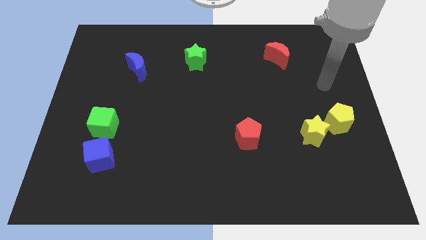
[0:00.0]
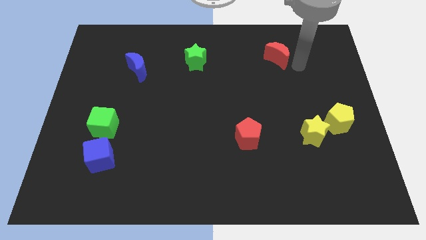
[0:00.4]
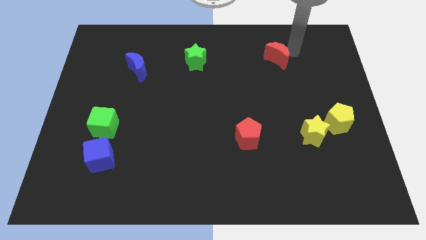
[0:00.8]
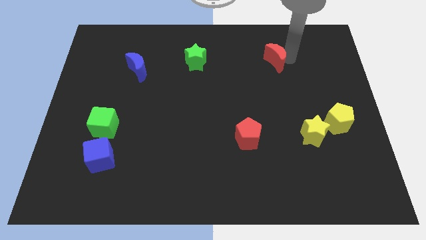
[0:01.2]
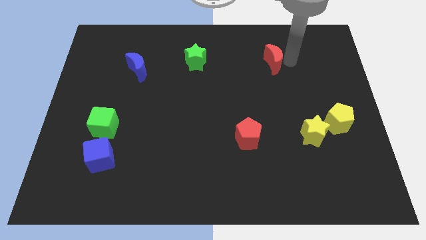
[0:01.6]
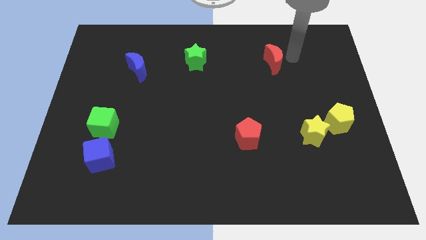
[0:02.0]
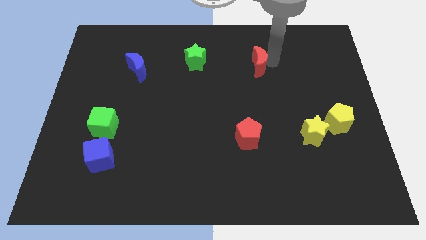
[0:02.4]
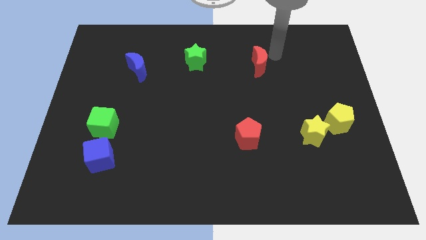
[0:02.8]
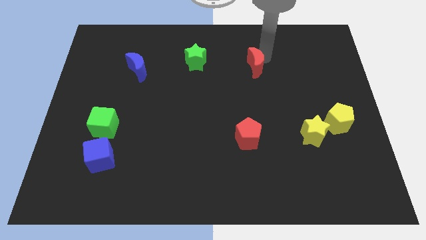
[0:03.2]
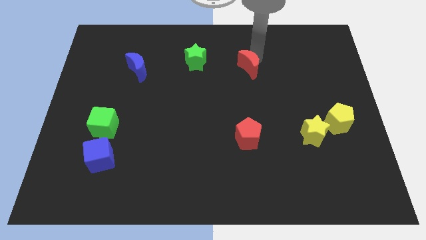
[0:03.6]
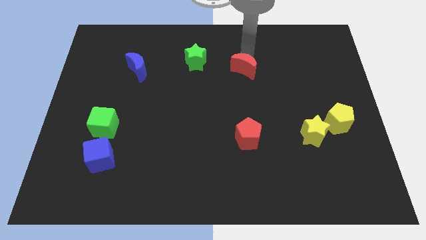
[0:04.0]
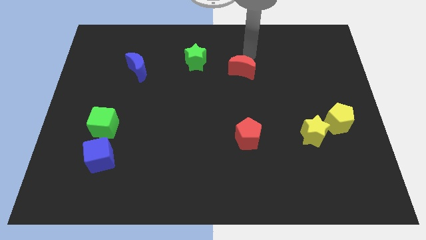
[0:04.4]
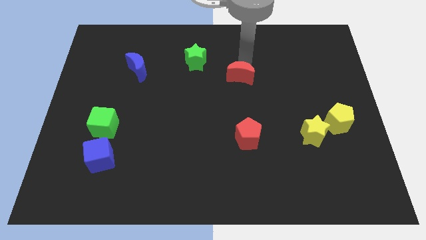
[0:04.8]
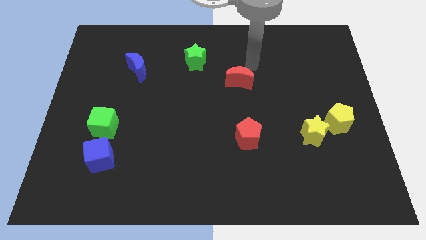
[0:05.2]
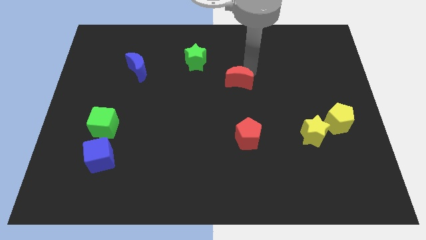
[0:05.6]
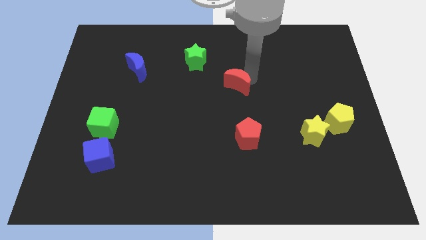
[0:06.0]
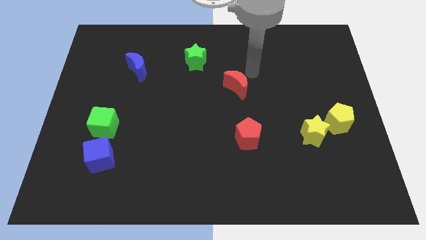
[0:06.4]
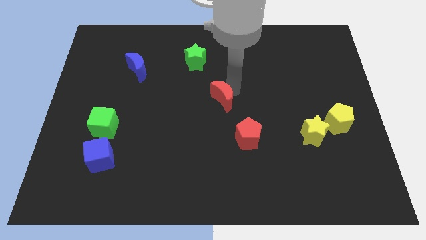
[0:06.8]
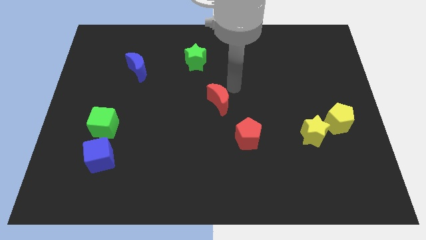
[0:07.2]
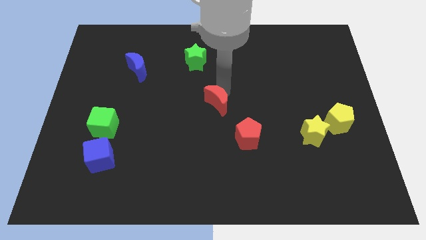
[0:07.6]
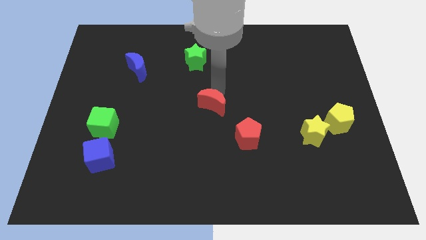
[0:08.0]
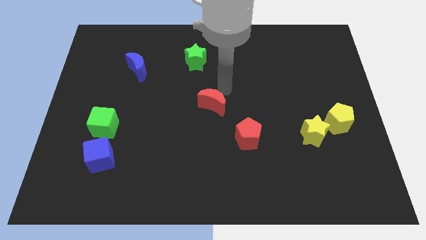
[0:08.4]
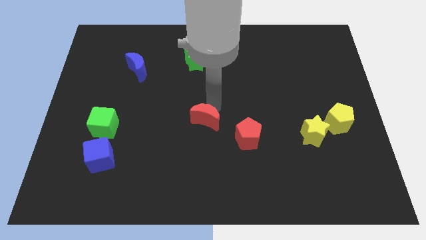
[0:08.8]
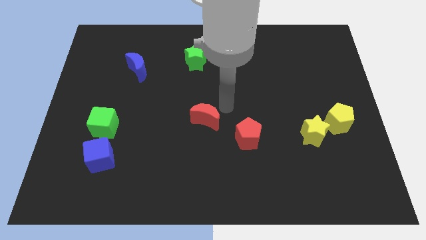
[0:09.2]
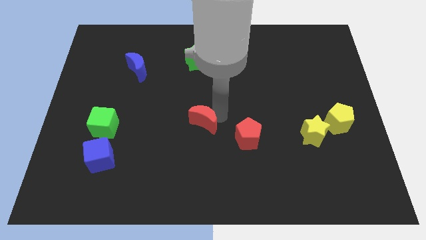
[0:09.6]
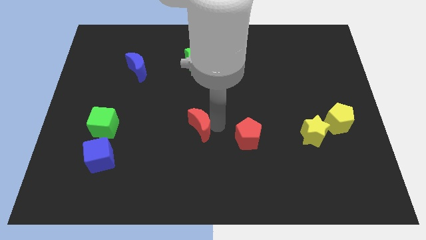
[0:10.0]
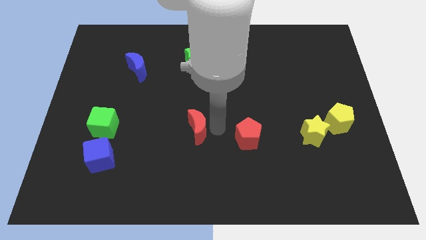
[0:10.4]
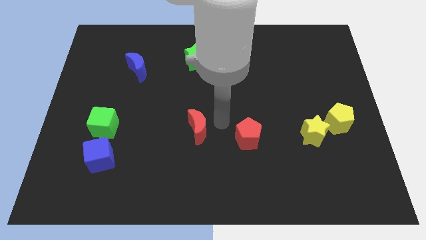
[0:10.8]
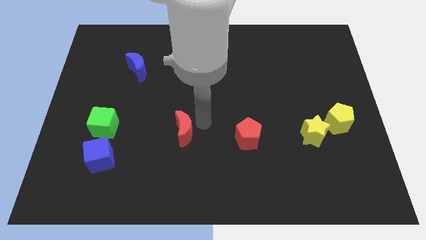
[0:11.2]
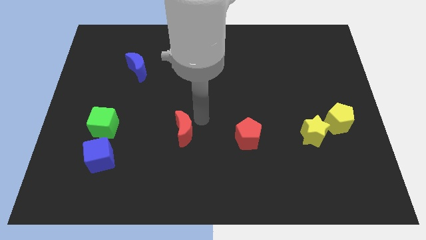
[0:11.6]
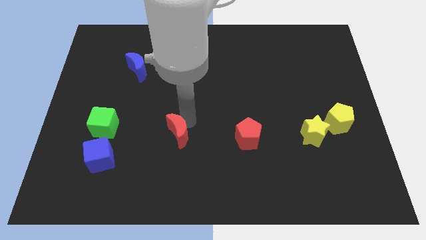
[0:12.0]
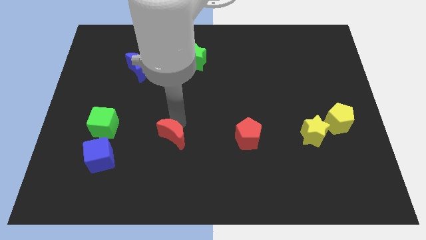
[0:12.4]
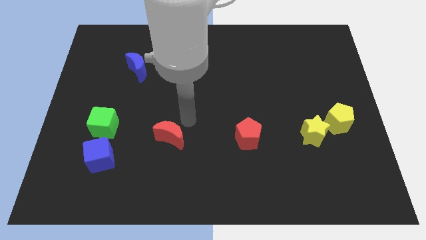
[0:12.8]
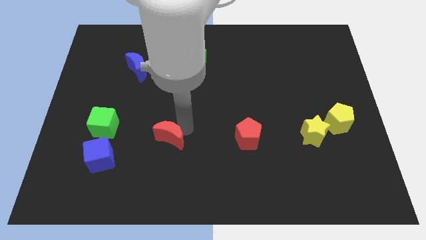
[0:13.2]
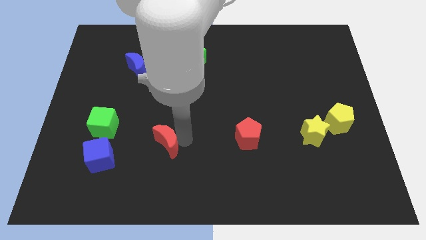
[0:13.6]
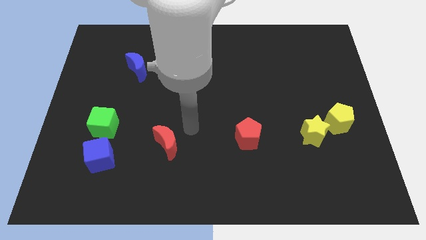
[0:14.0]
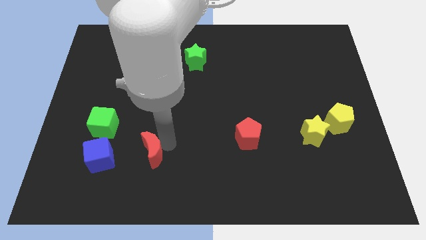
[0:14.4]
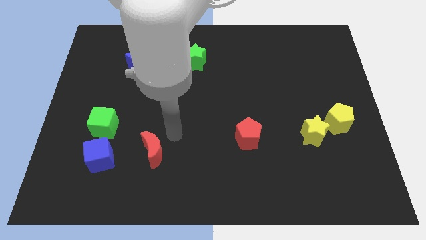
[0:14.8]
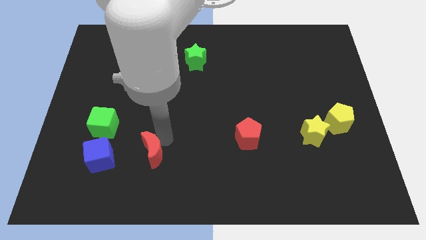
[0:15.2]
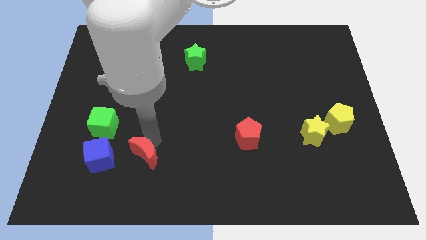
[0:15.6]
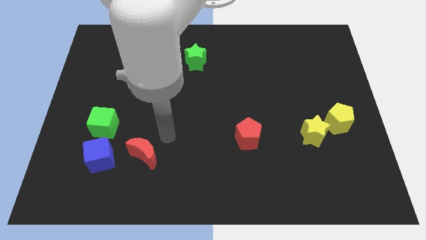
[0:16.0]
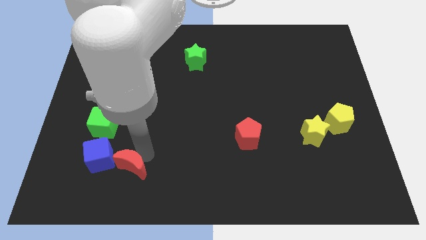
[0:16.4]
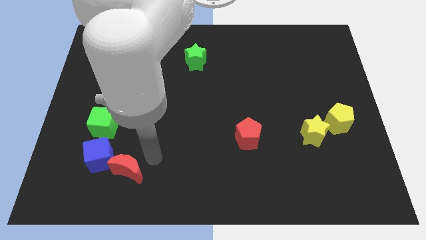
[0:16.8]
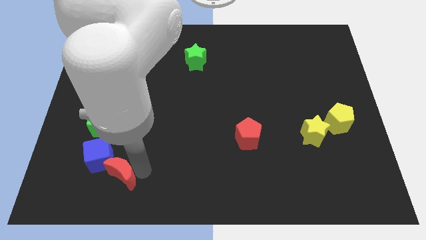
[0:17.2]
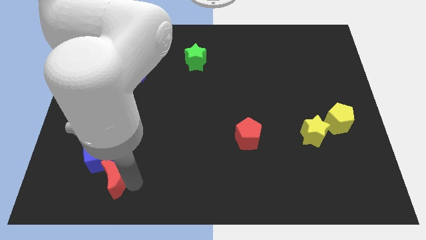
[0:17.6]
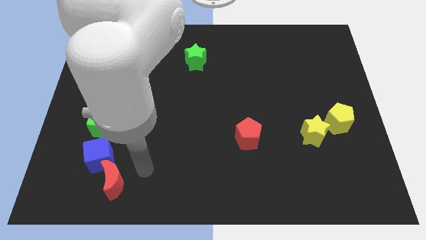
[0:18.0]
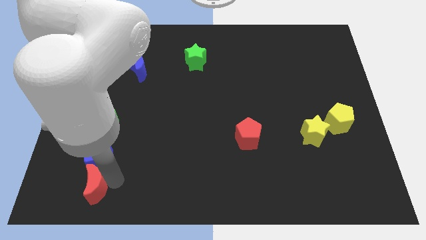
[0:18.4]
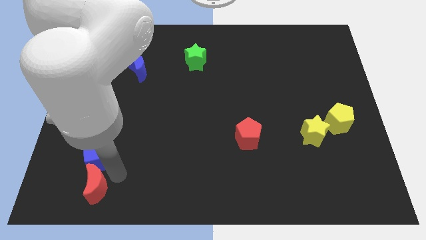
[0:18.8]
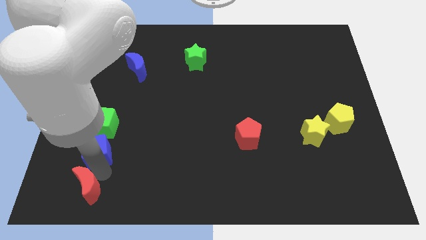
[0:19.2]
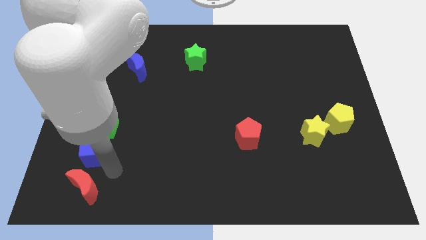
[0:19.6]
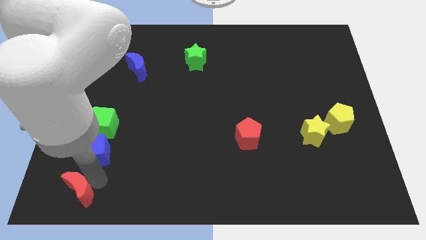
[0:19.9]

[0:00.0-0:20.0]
put the red moon to the bottom left corner

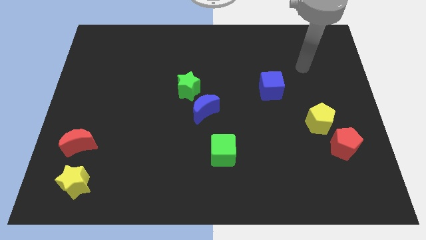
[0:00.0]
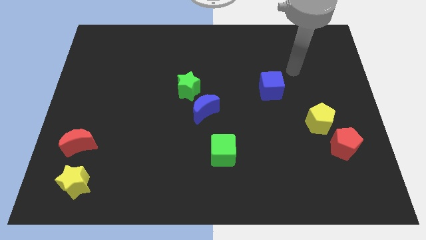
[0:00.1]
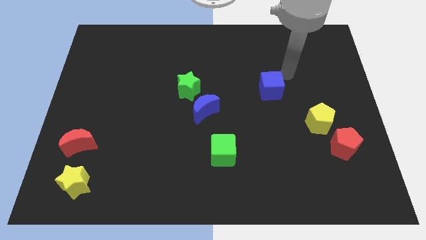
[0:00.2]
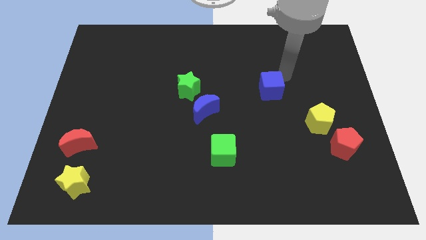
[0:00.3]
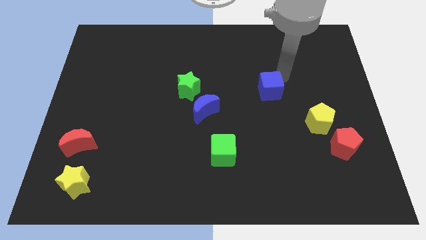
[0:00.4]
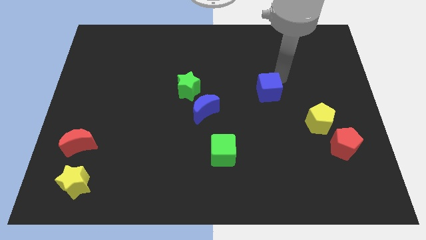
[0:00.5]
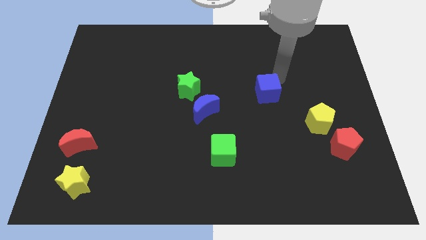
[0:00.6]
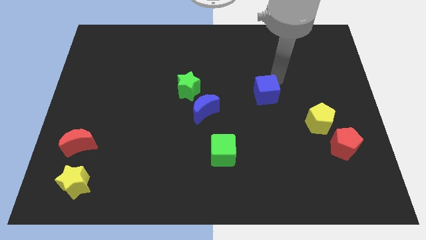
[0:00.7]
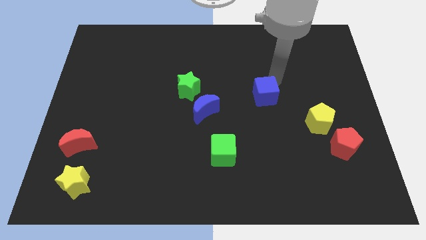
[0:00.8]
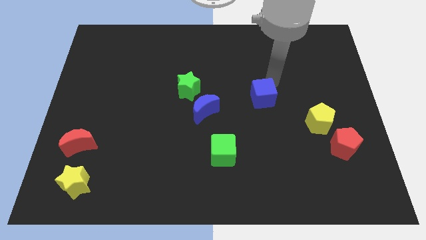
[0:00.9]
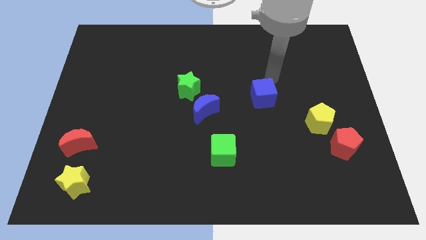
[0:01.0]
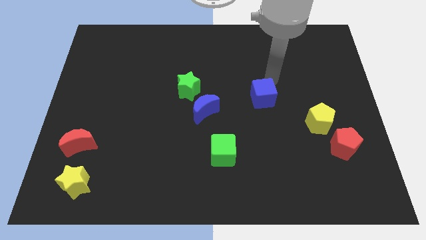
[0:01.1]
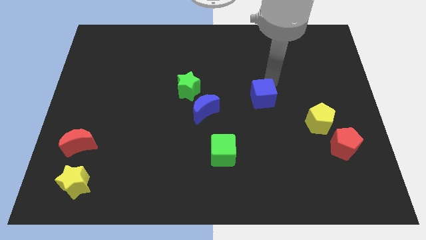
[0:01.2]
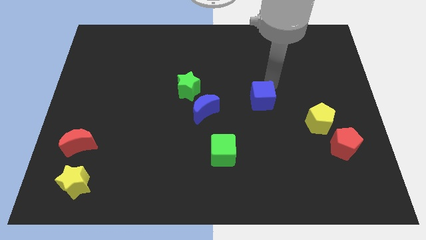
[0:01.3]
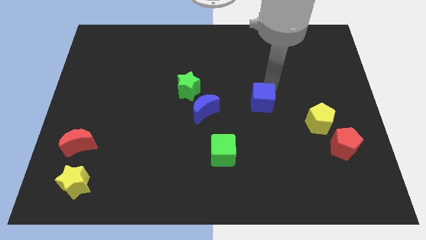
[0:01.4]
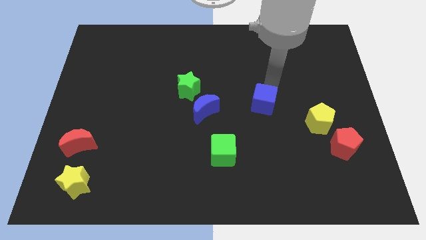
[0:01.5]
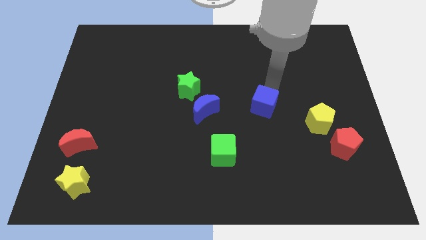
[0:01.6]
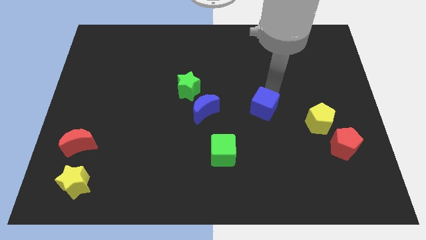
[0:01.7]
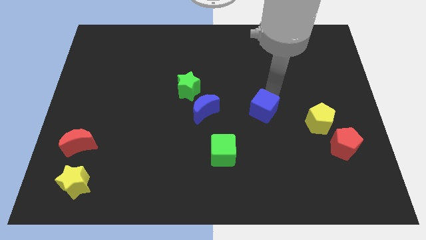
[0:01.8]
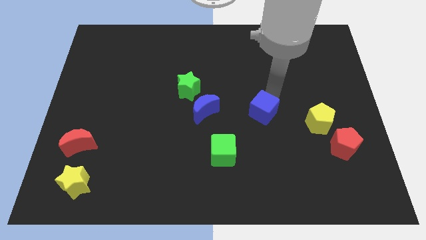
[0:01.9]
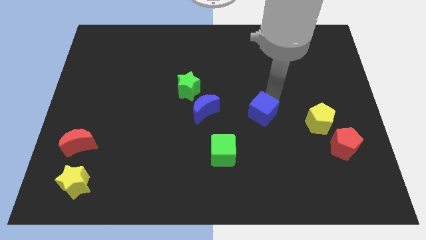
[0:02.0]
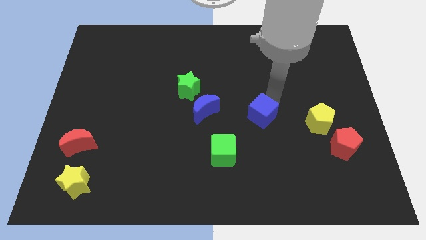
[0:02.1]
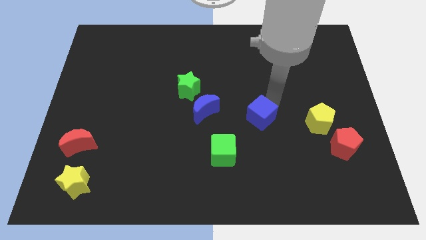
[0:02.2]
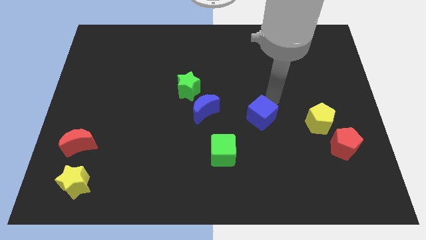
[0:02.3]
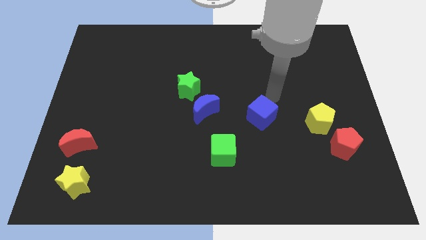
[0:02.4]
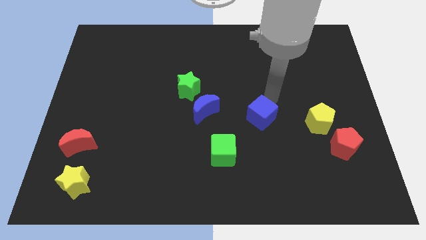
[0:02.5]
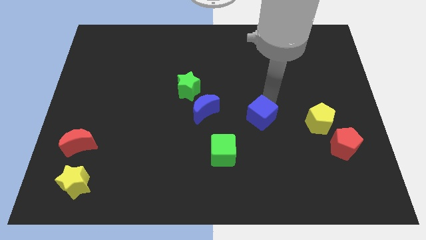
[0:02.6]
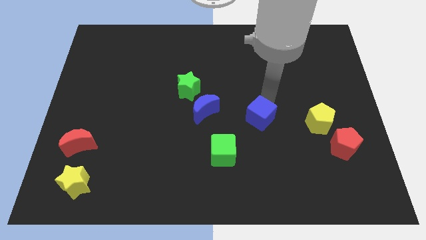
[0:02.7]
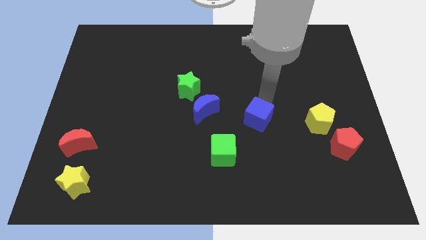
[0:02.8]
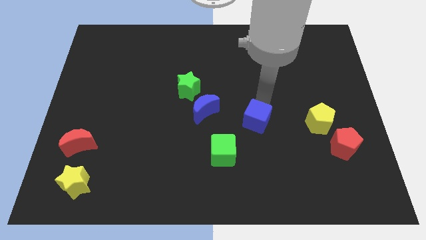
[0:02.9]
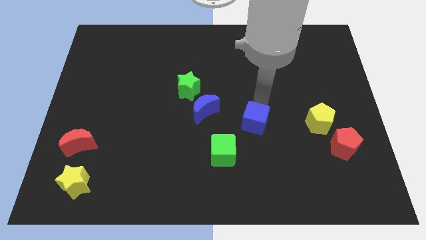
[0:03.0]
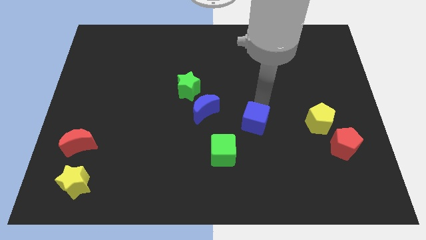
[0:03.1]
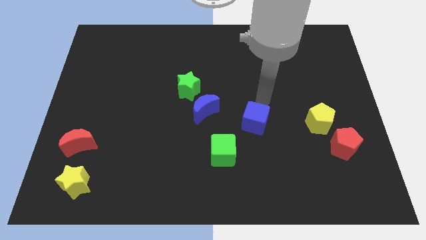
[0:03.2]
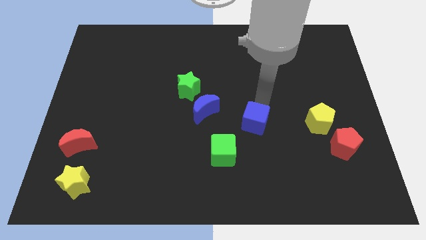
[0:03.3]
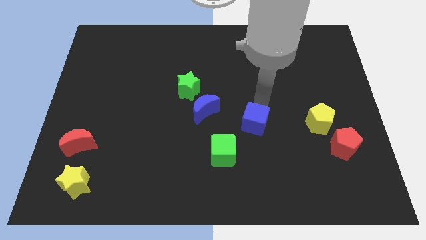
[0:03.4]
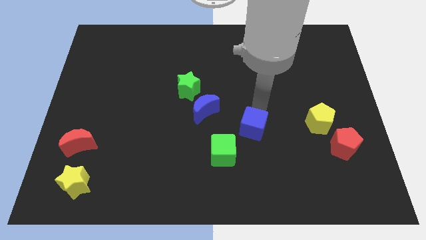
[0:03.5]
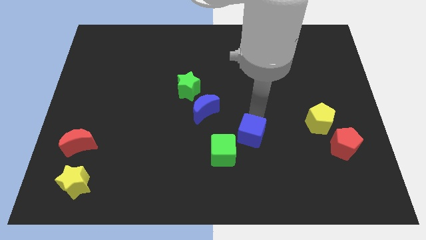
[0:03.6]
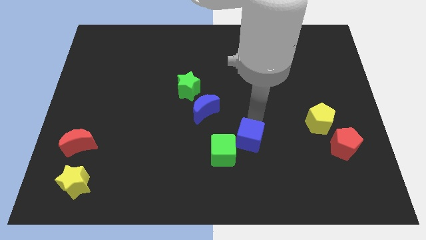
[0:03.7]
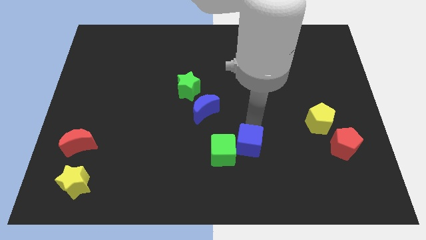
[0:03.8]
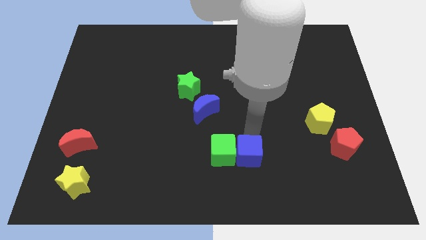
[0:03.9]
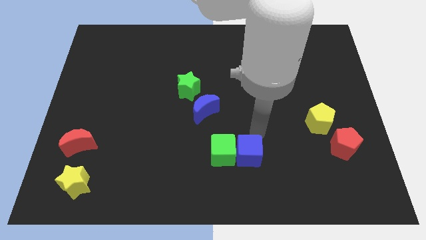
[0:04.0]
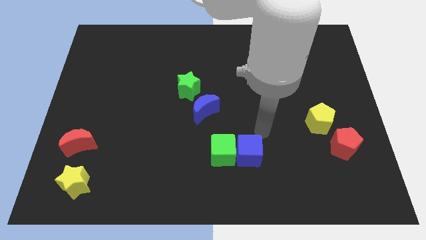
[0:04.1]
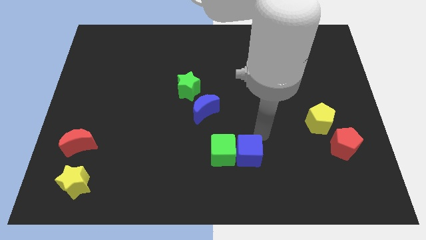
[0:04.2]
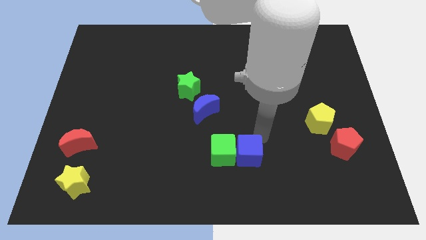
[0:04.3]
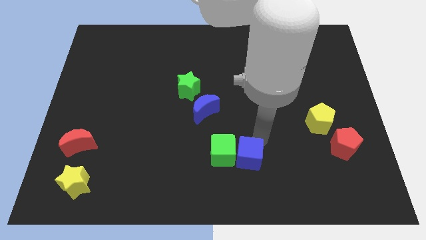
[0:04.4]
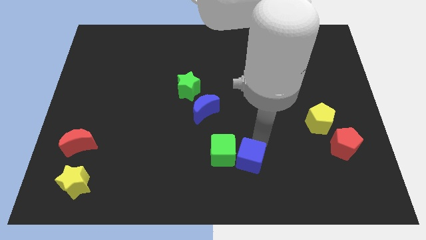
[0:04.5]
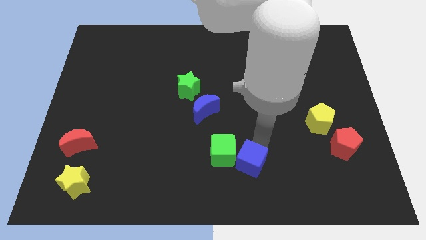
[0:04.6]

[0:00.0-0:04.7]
slide the blue cube to the bottom
